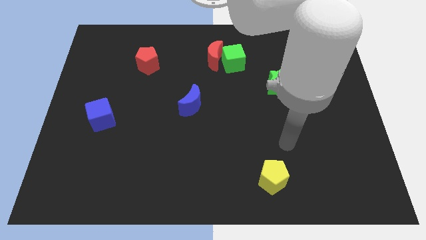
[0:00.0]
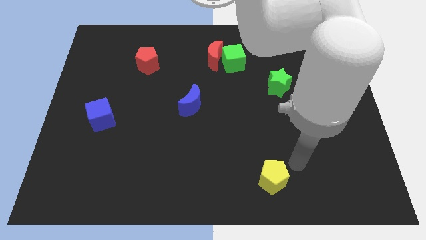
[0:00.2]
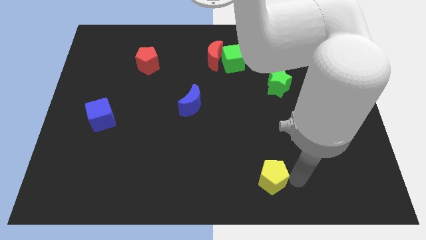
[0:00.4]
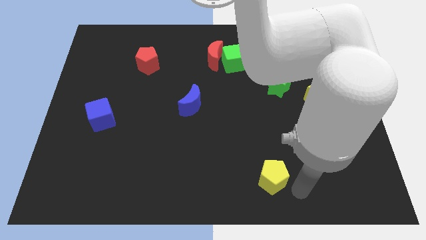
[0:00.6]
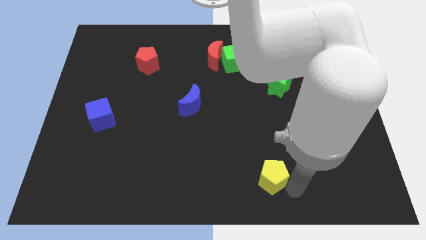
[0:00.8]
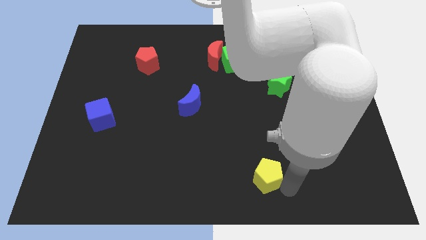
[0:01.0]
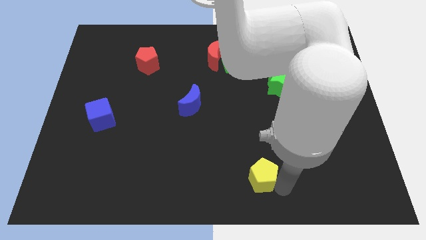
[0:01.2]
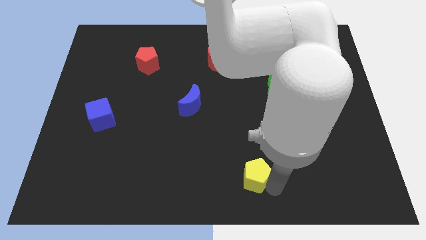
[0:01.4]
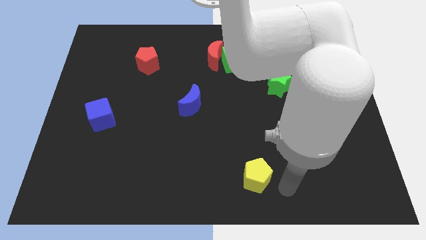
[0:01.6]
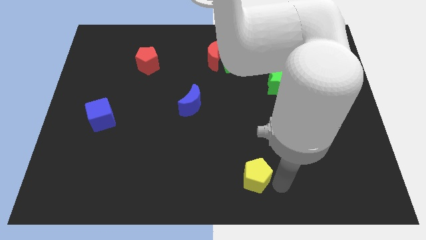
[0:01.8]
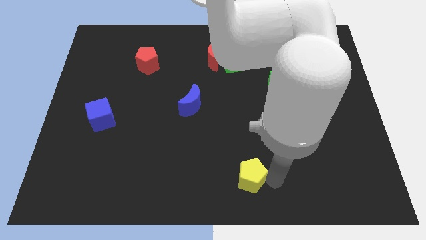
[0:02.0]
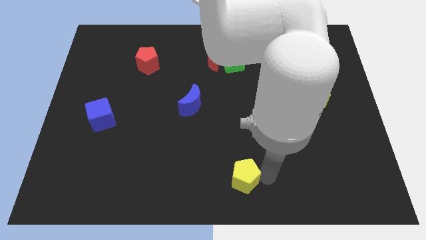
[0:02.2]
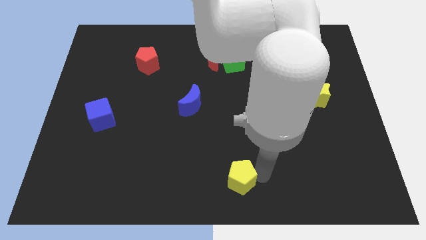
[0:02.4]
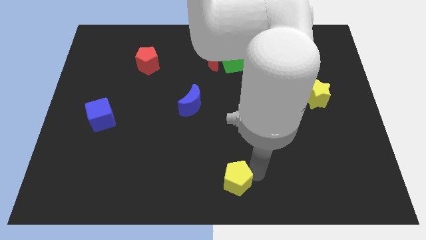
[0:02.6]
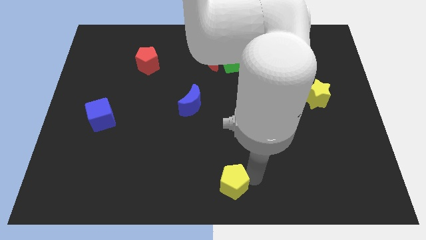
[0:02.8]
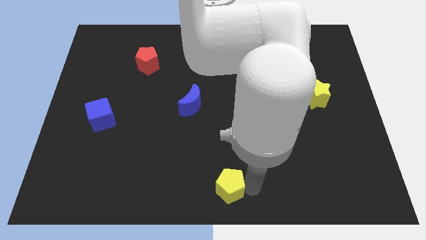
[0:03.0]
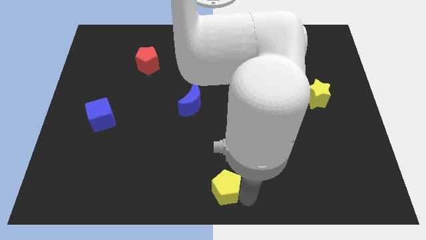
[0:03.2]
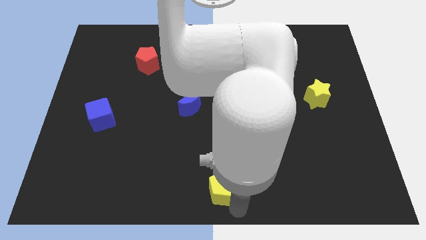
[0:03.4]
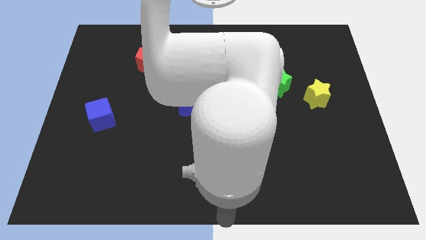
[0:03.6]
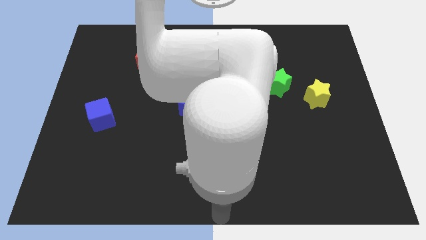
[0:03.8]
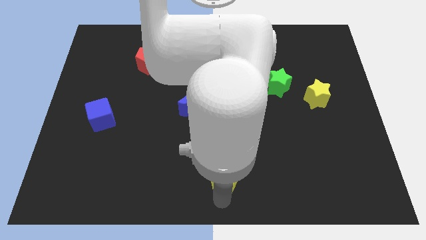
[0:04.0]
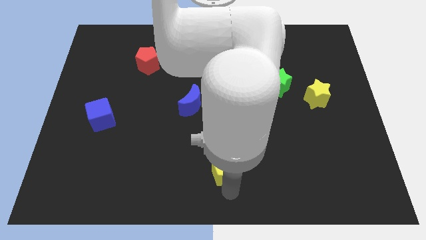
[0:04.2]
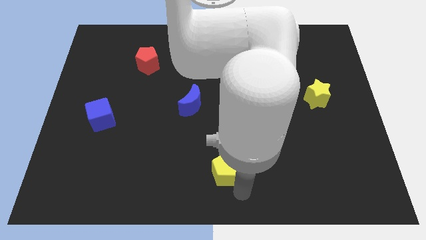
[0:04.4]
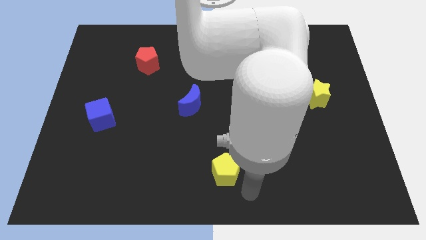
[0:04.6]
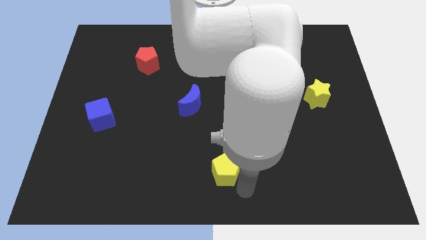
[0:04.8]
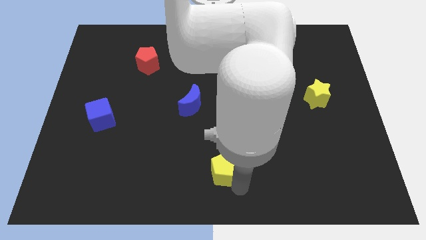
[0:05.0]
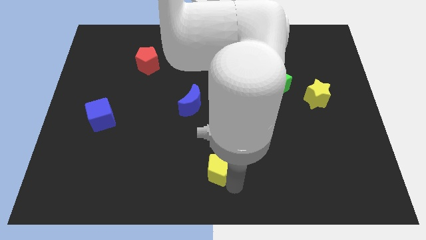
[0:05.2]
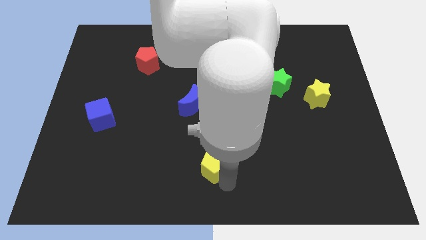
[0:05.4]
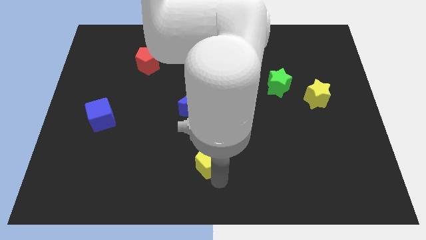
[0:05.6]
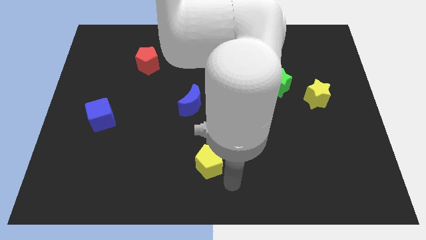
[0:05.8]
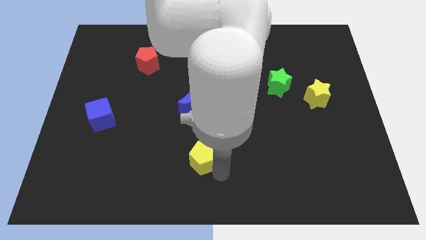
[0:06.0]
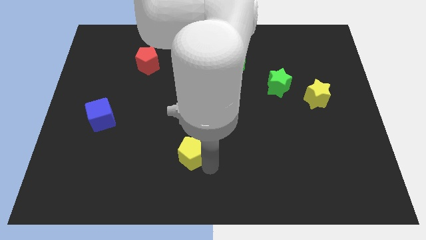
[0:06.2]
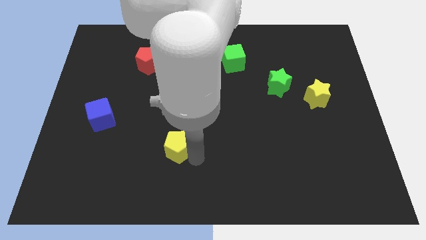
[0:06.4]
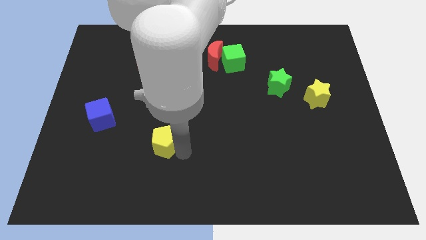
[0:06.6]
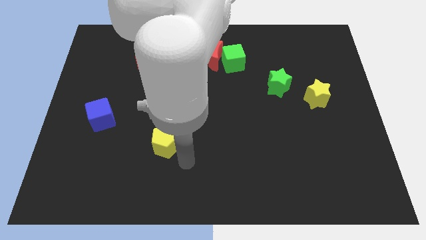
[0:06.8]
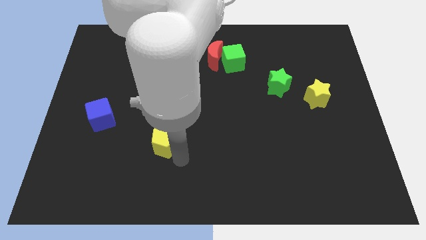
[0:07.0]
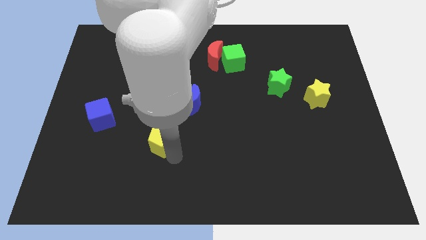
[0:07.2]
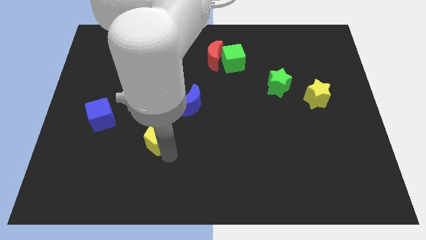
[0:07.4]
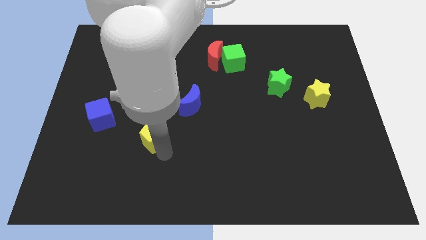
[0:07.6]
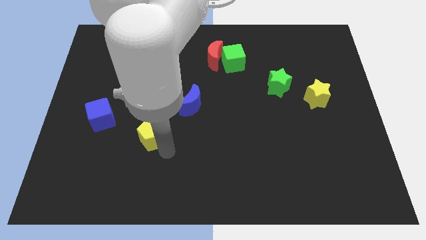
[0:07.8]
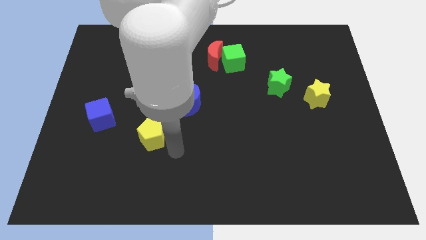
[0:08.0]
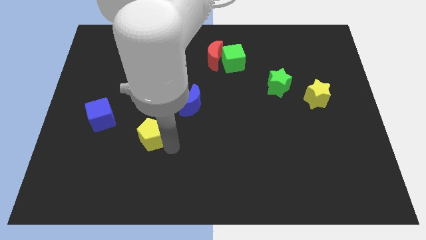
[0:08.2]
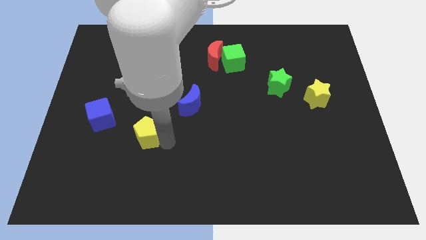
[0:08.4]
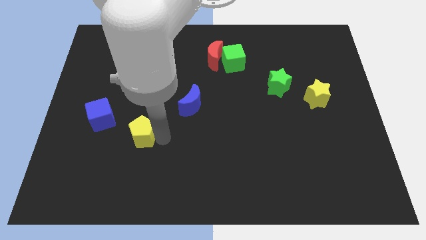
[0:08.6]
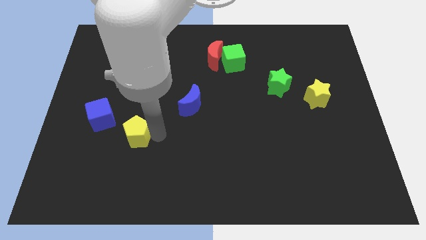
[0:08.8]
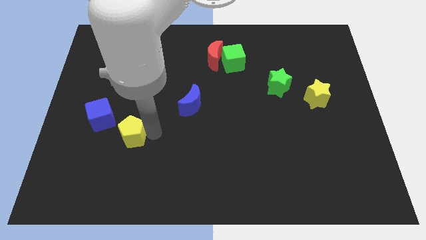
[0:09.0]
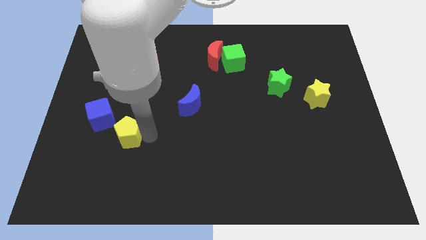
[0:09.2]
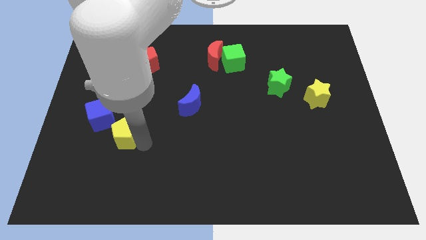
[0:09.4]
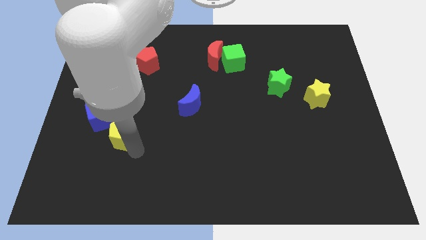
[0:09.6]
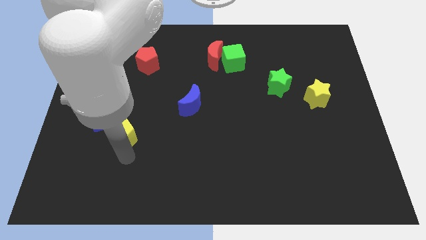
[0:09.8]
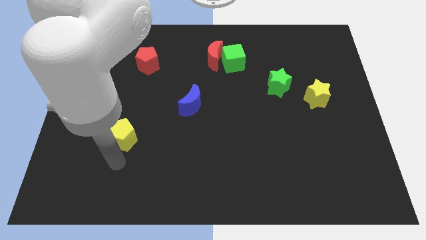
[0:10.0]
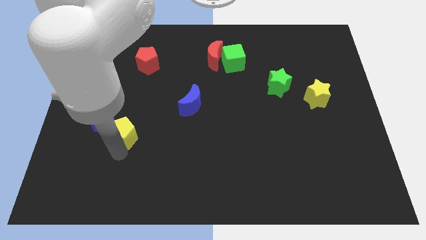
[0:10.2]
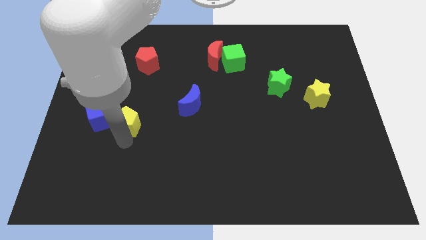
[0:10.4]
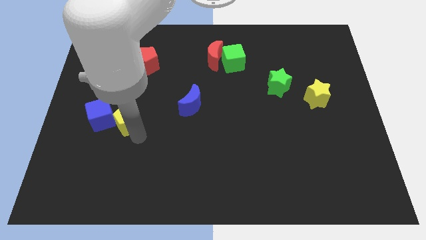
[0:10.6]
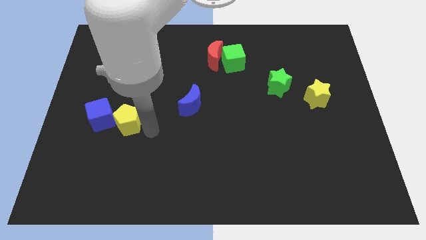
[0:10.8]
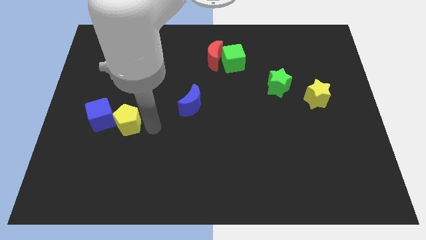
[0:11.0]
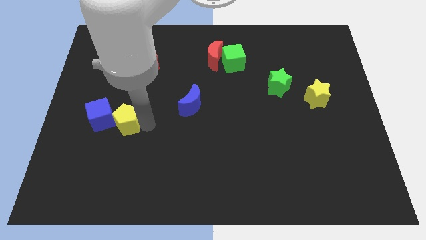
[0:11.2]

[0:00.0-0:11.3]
push the yellow pentagon towards the blue cube

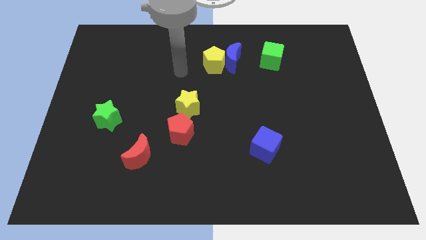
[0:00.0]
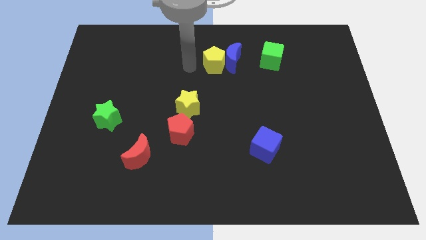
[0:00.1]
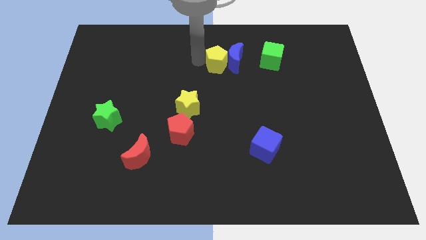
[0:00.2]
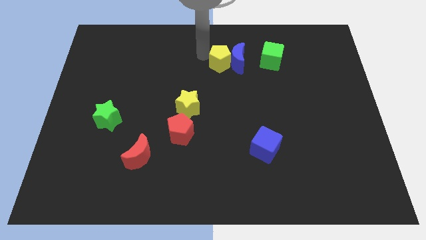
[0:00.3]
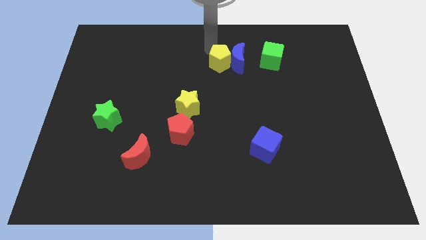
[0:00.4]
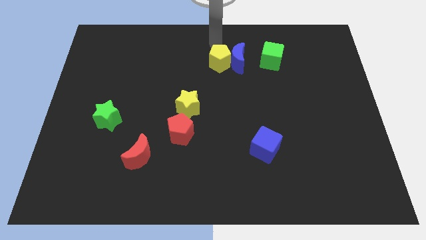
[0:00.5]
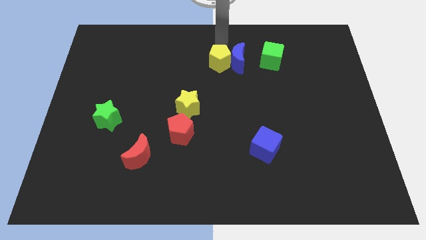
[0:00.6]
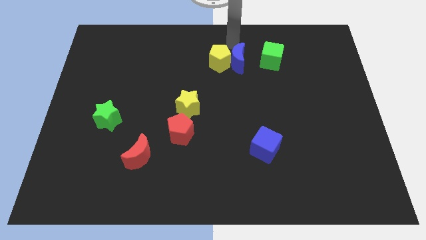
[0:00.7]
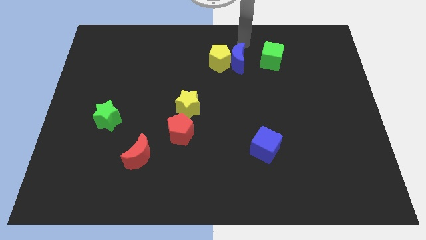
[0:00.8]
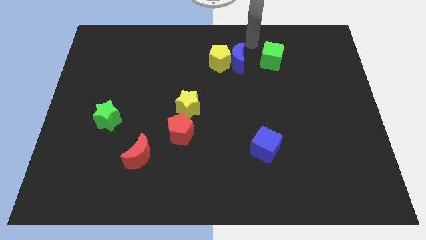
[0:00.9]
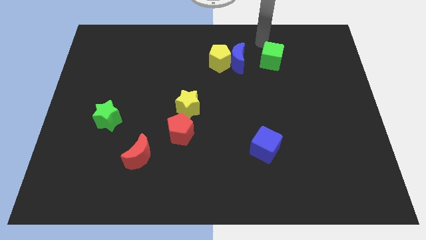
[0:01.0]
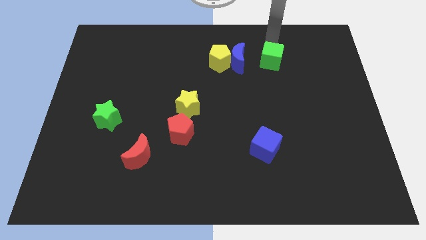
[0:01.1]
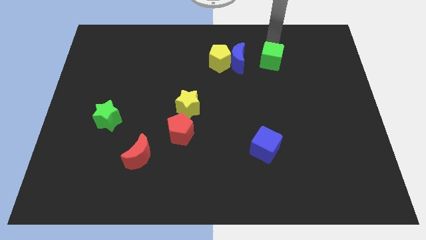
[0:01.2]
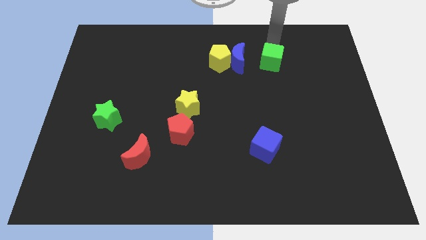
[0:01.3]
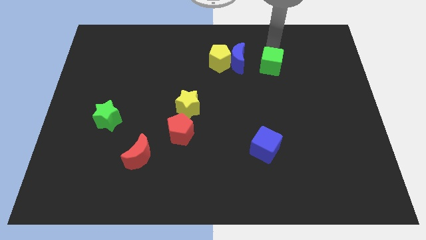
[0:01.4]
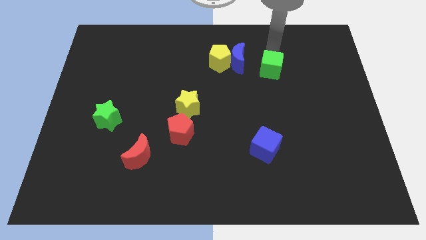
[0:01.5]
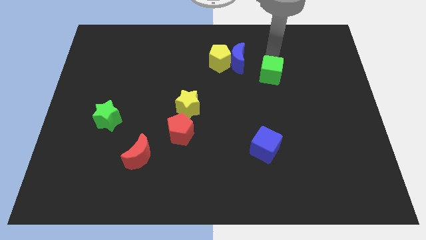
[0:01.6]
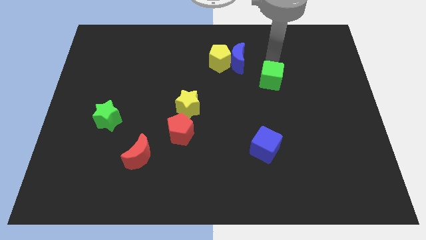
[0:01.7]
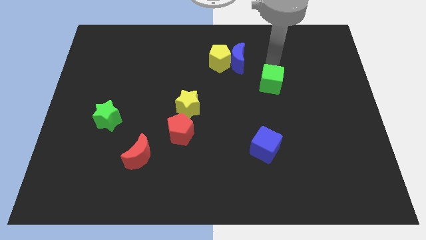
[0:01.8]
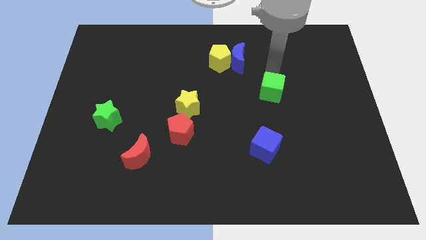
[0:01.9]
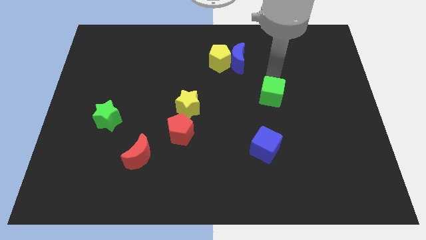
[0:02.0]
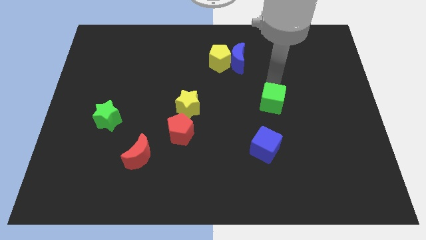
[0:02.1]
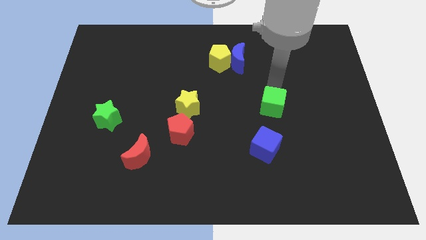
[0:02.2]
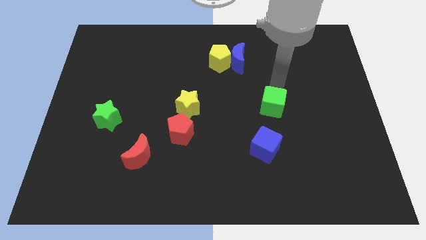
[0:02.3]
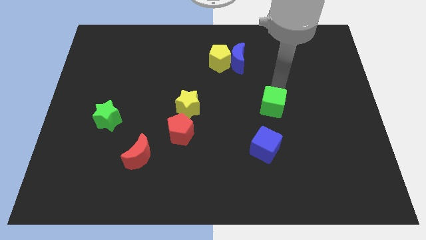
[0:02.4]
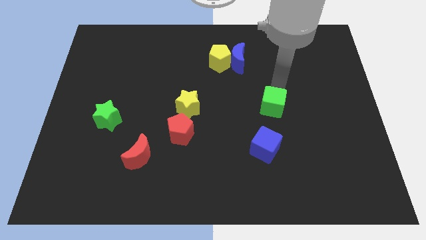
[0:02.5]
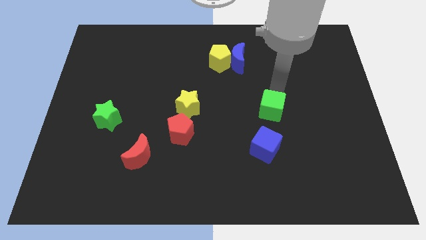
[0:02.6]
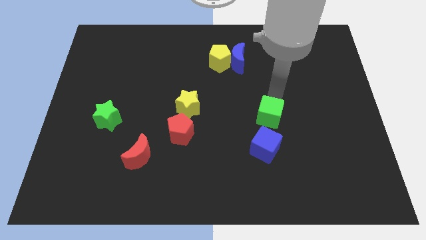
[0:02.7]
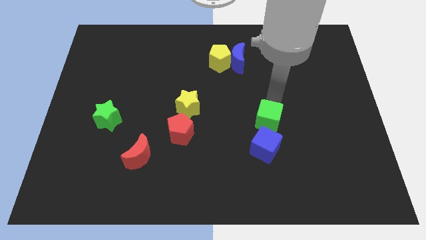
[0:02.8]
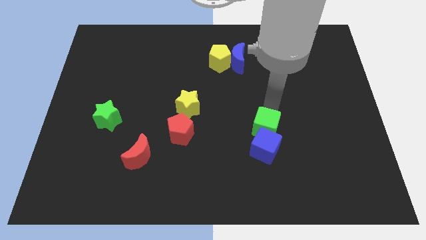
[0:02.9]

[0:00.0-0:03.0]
move the green cube to the blue cube
